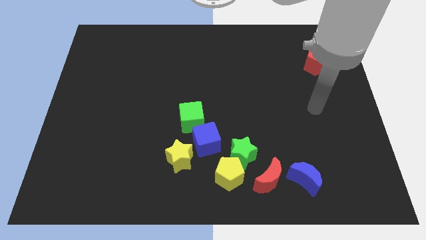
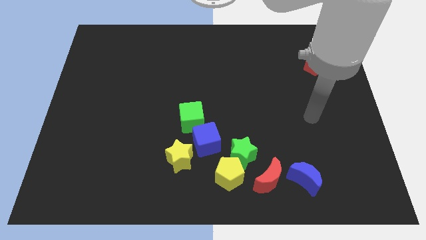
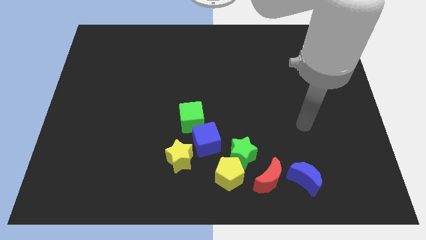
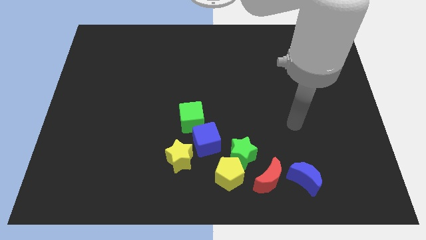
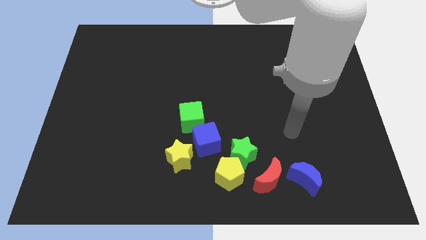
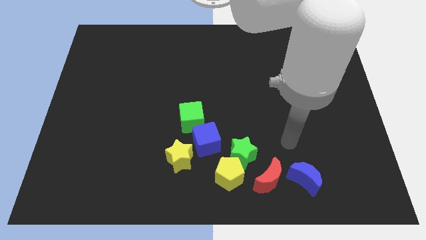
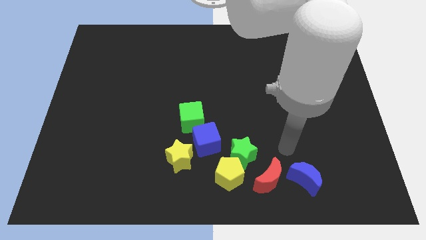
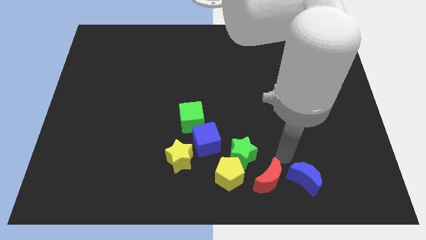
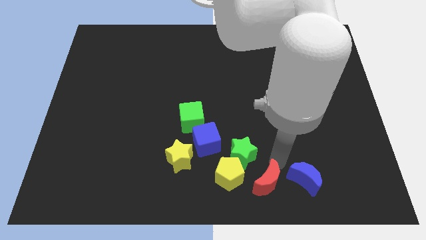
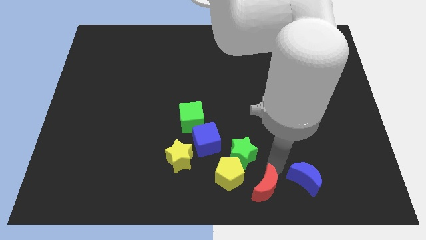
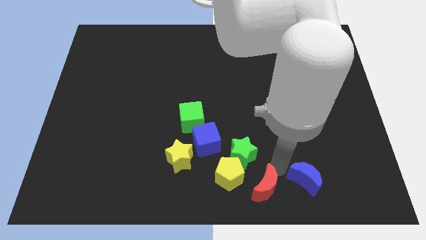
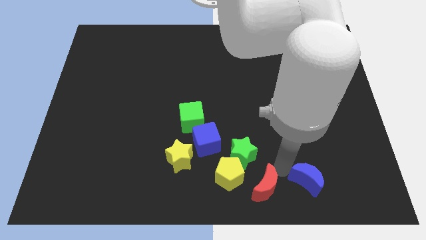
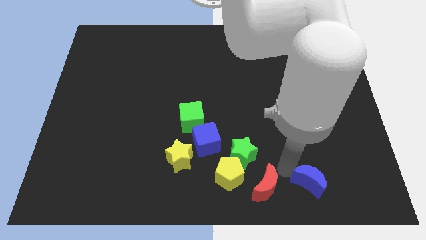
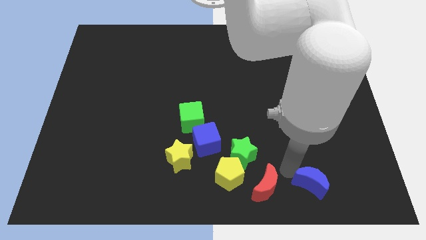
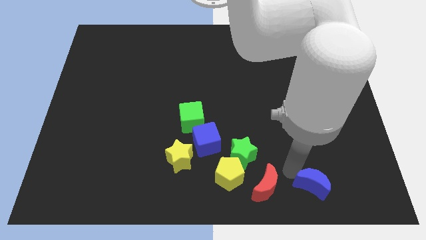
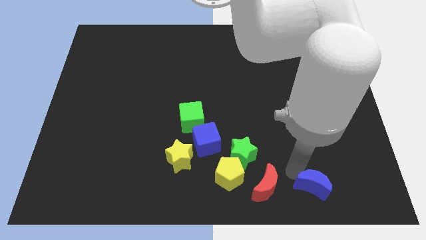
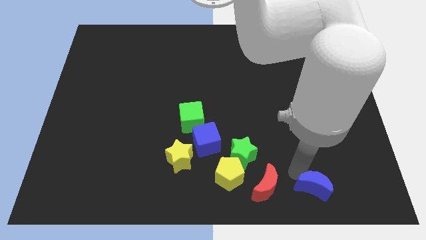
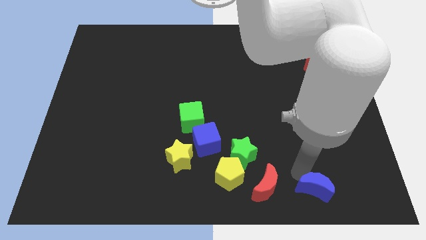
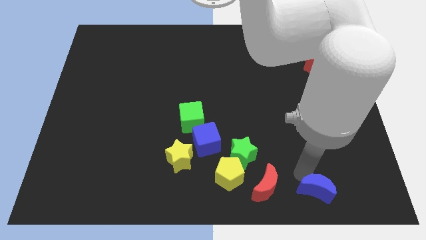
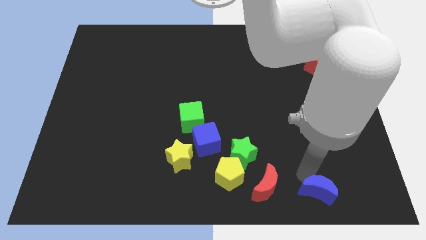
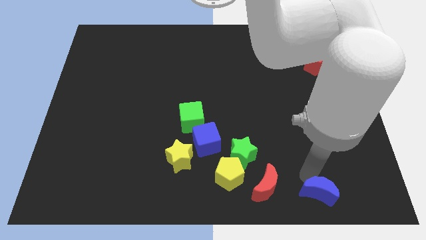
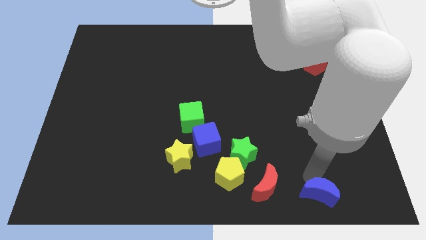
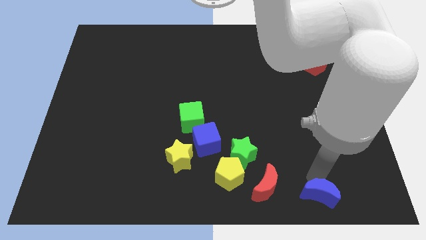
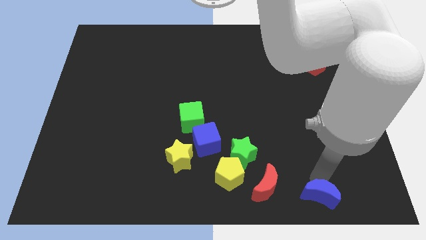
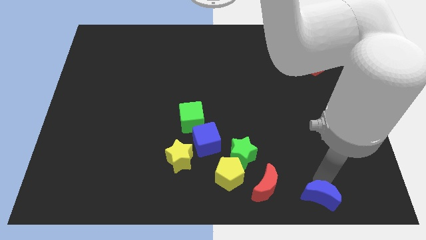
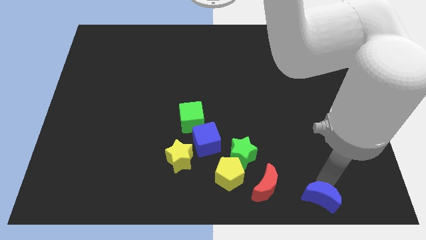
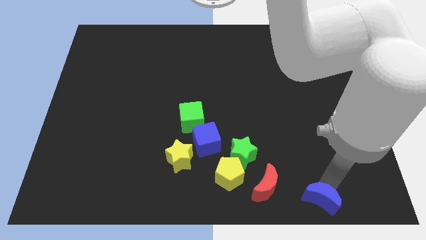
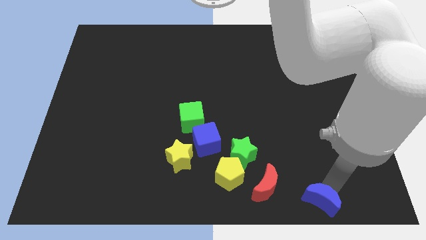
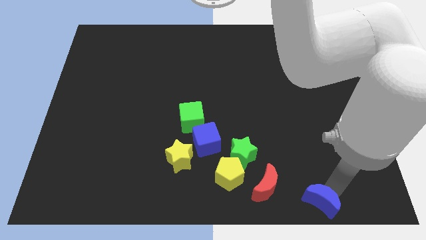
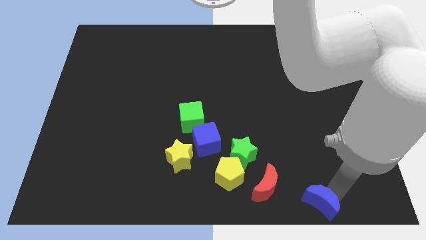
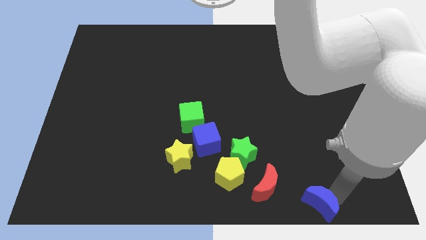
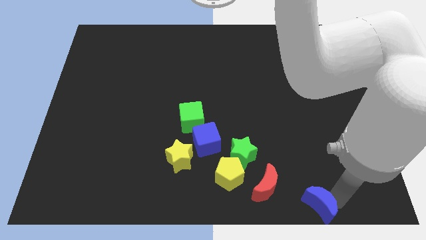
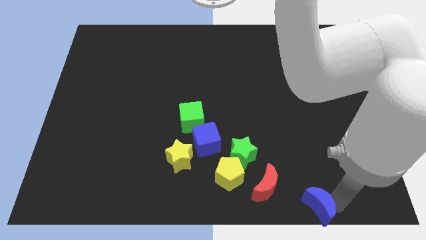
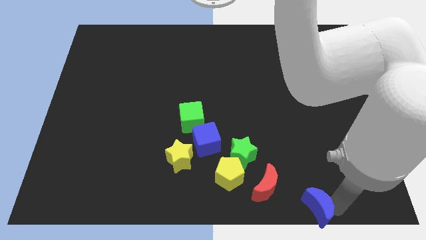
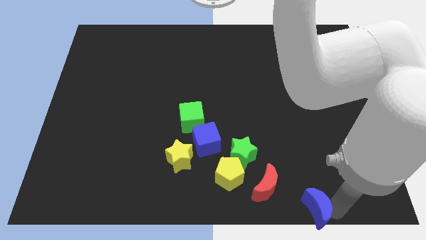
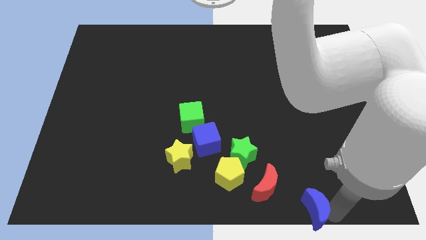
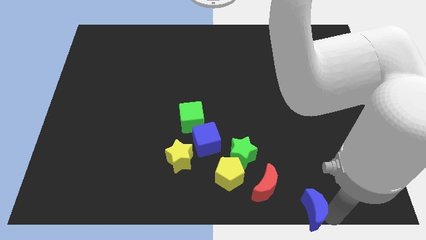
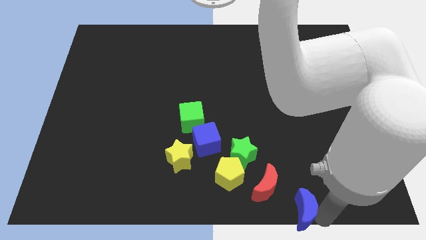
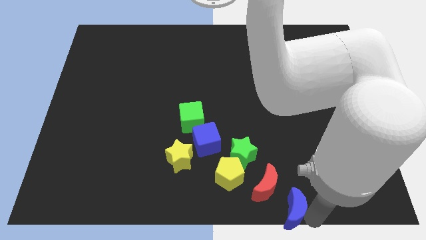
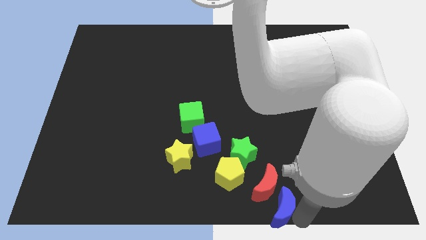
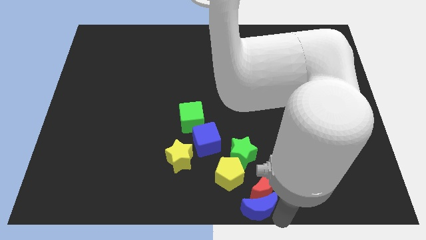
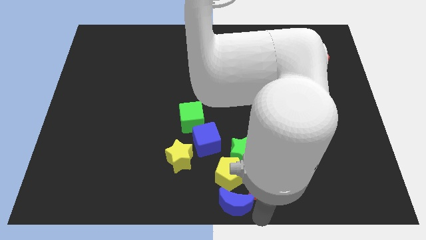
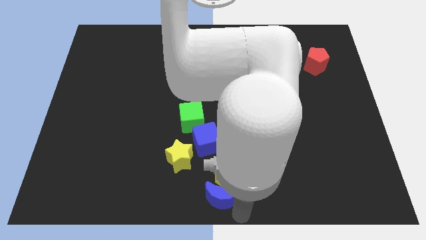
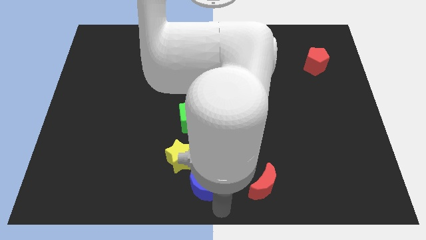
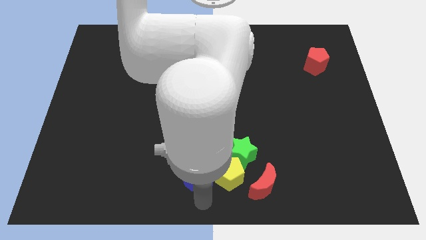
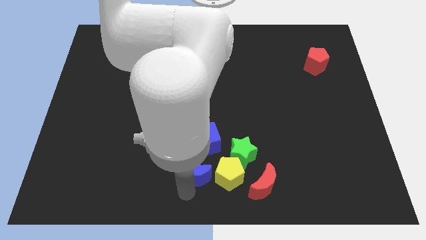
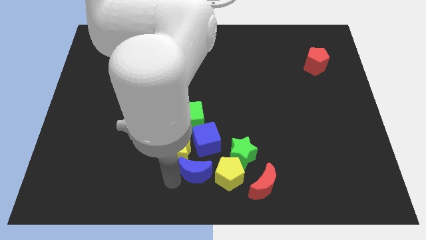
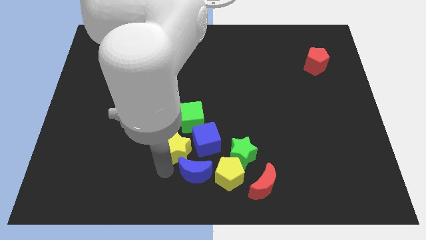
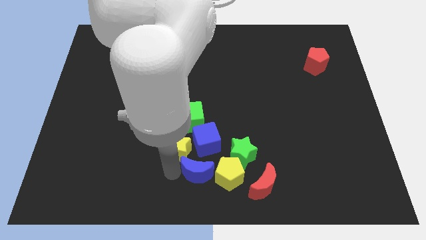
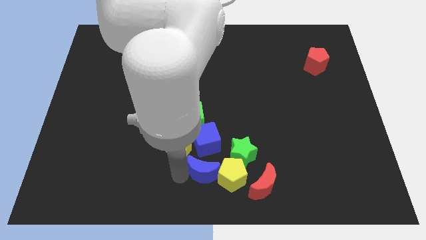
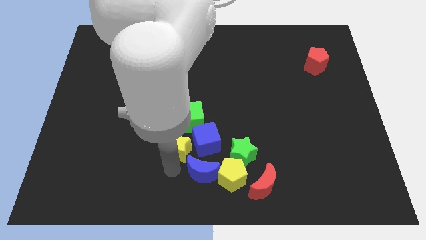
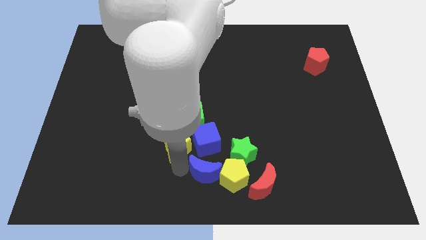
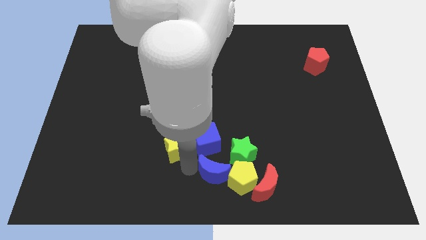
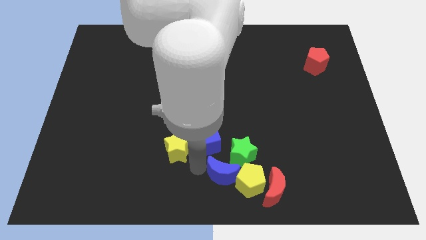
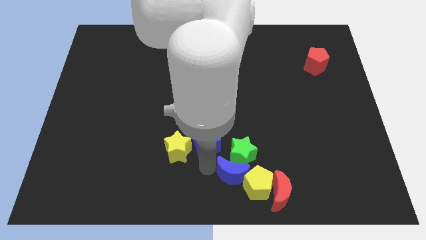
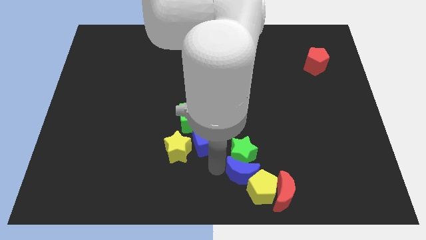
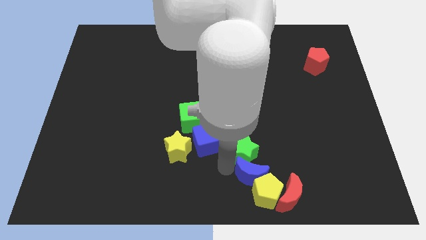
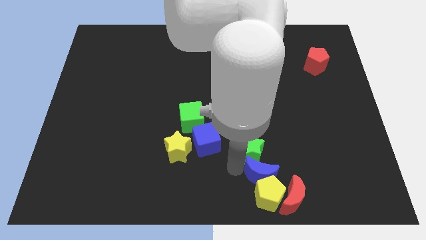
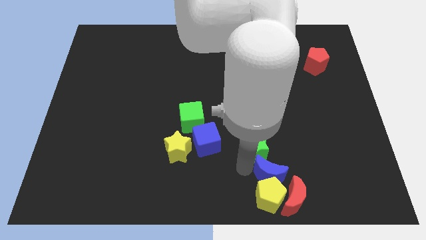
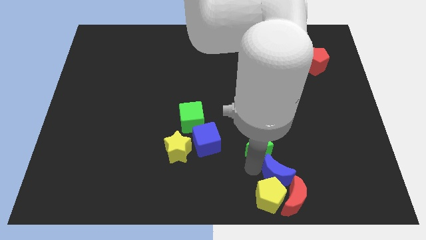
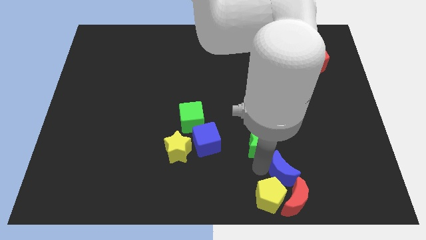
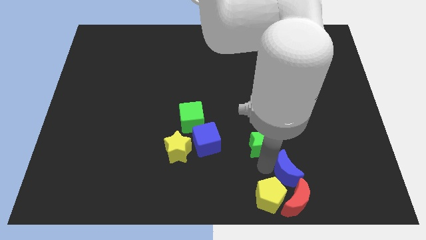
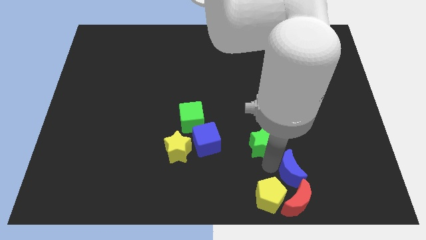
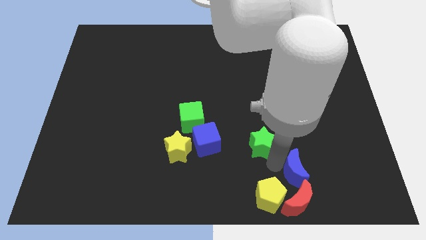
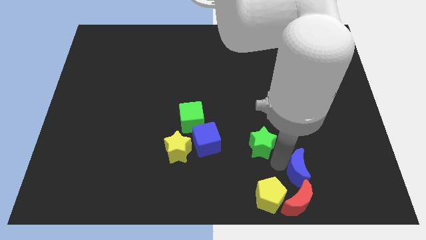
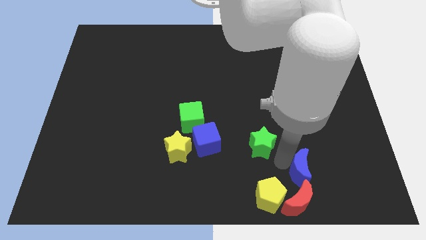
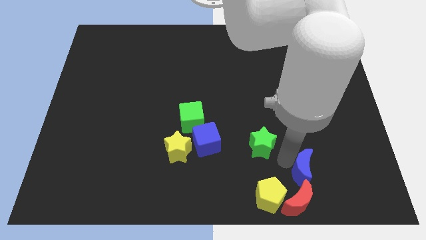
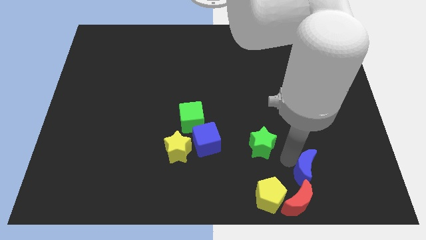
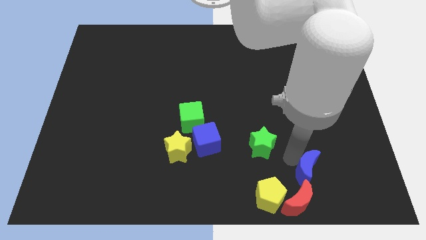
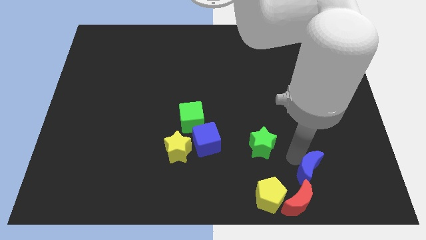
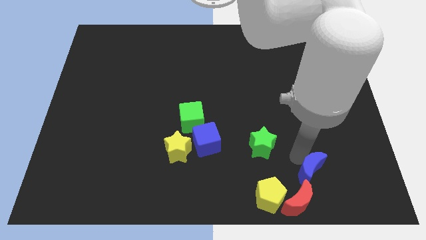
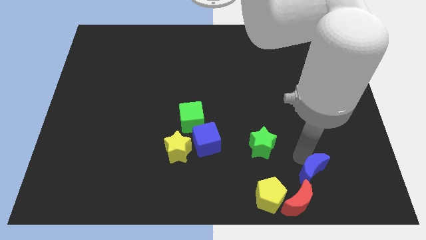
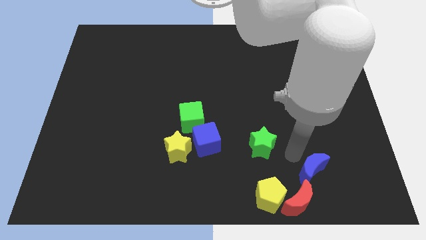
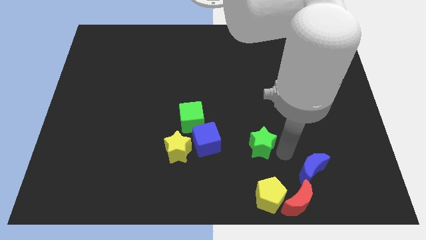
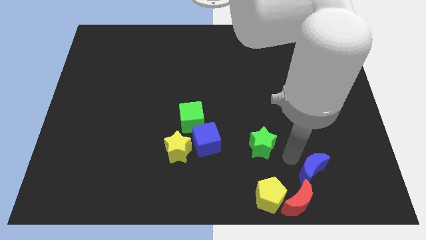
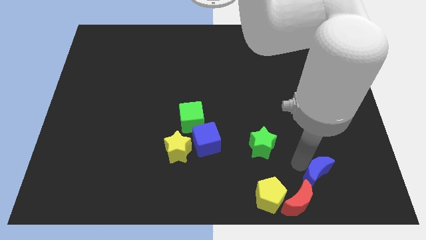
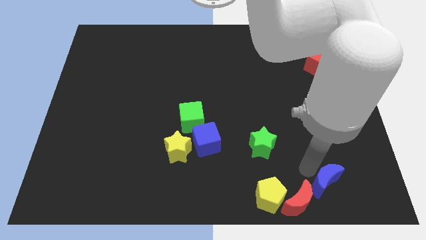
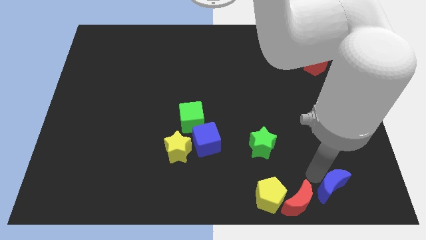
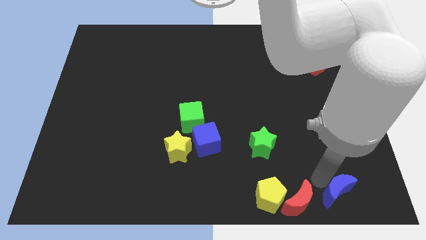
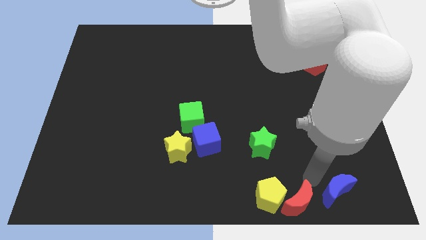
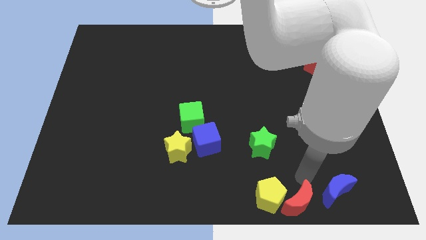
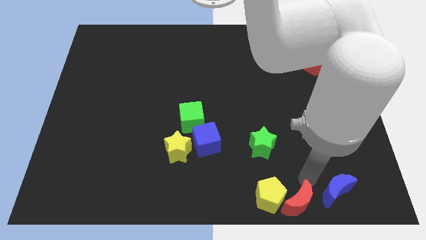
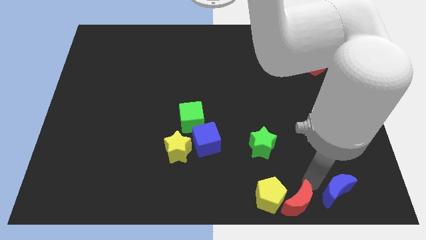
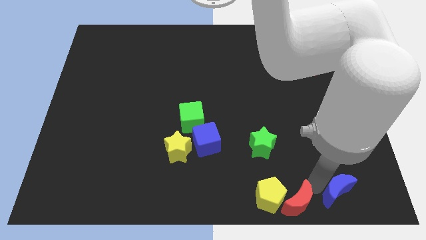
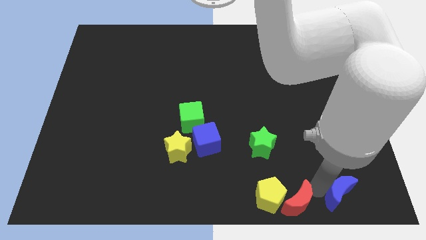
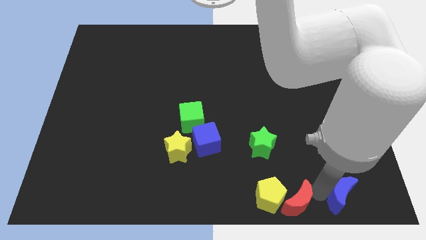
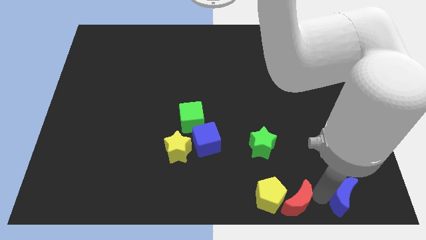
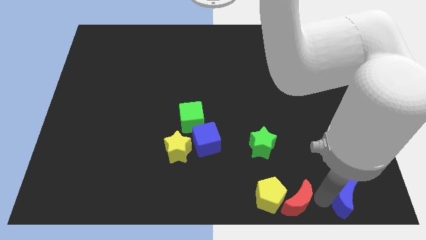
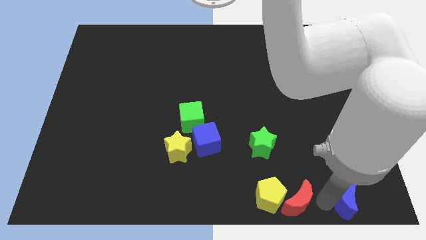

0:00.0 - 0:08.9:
put the blue moon to the bottom right corner
